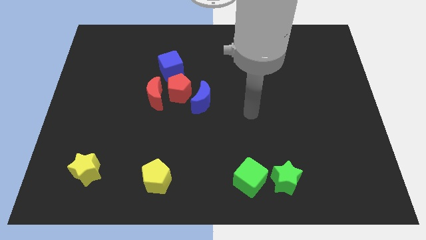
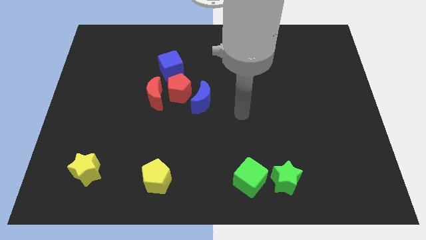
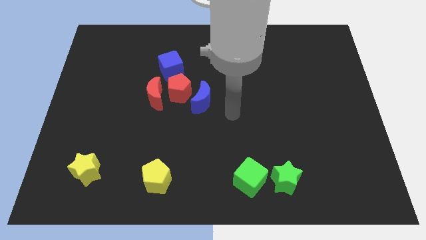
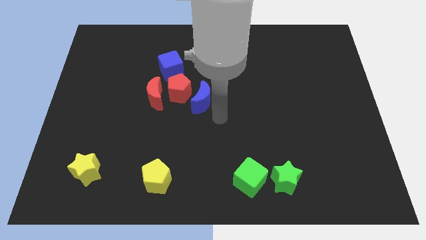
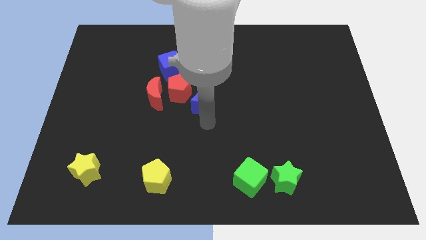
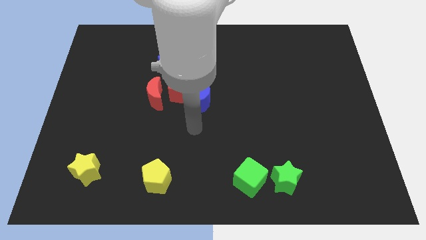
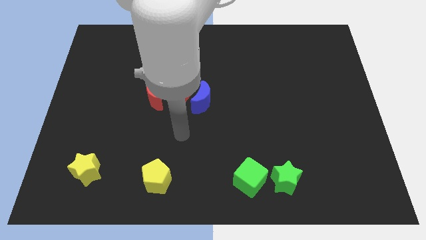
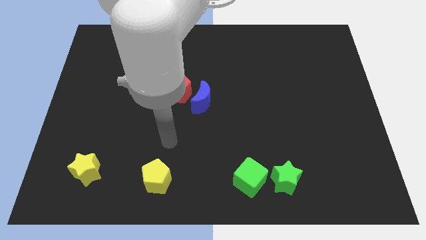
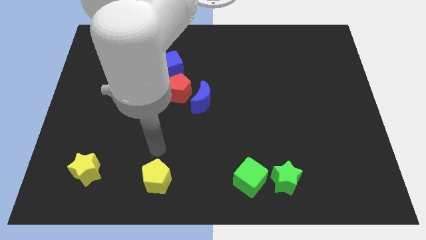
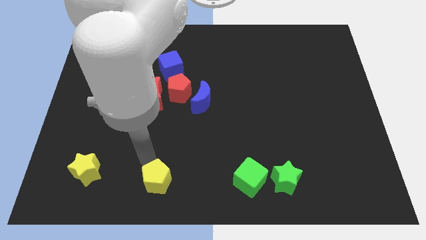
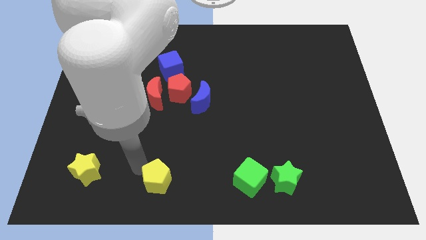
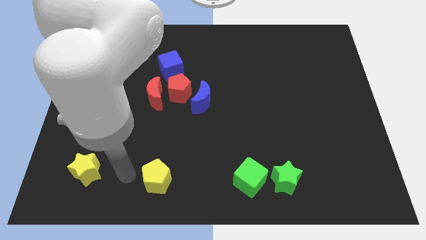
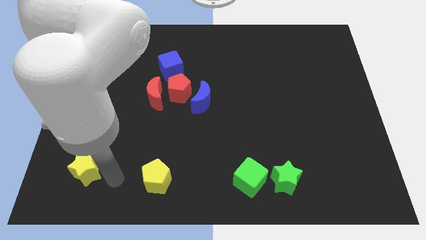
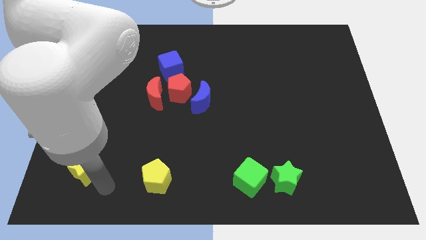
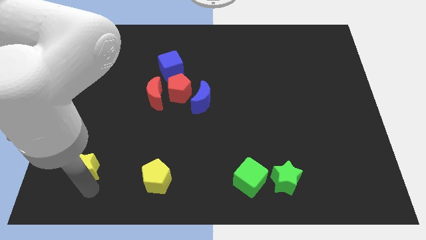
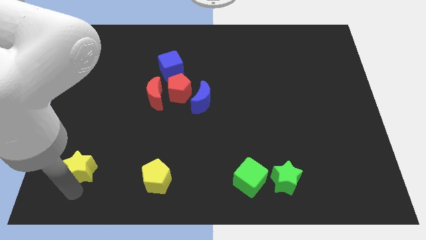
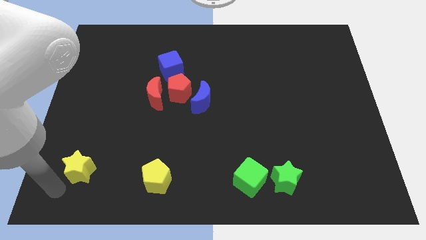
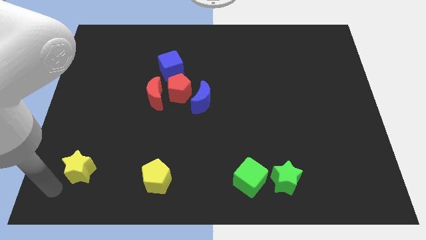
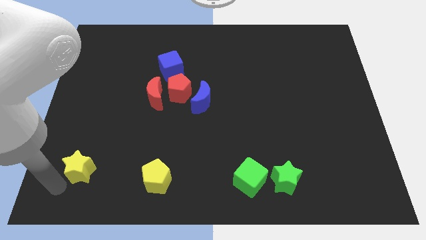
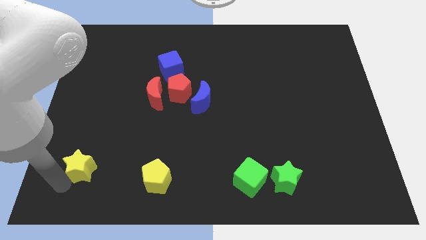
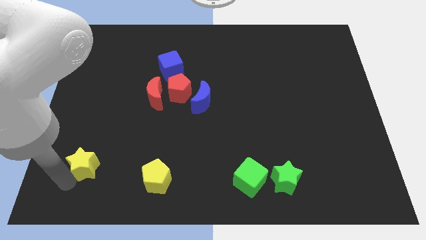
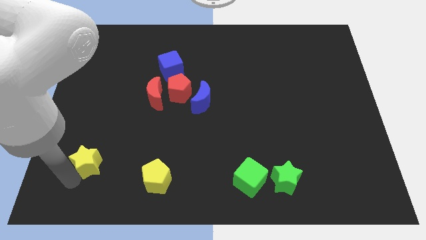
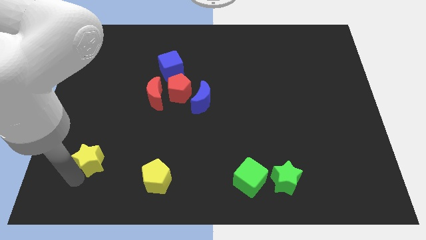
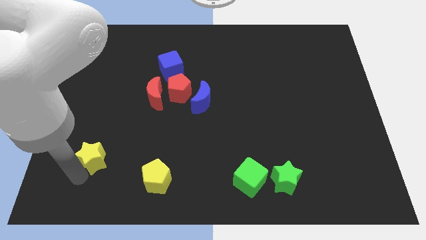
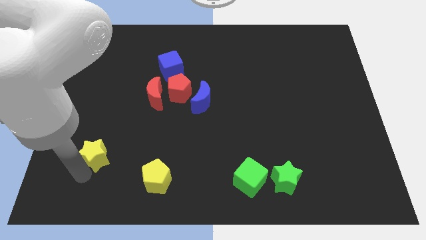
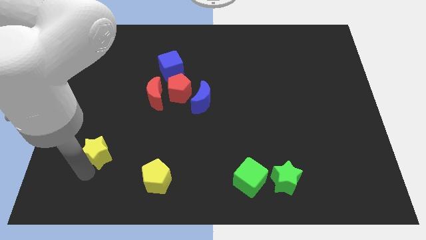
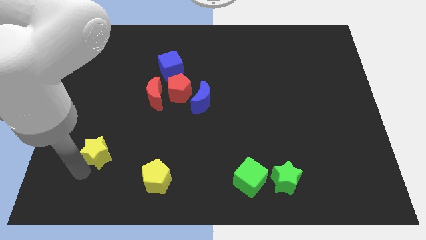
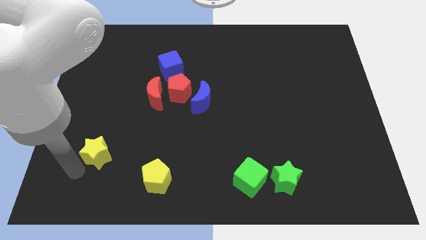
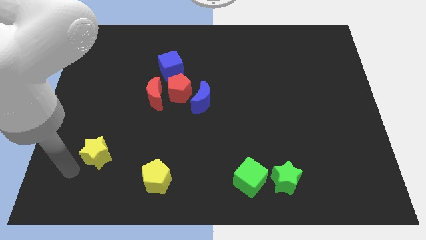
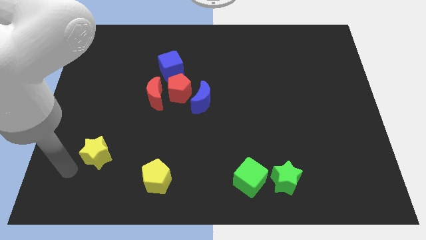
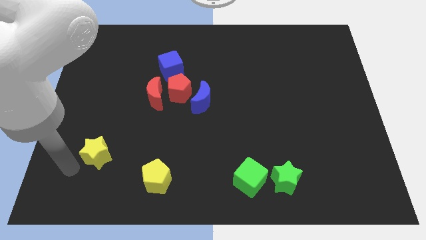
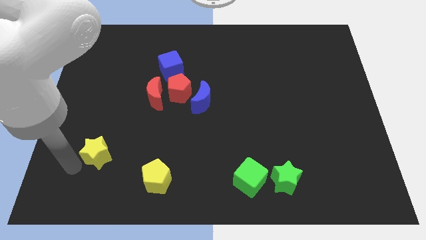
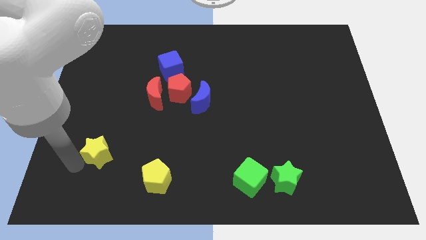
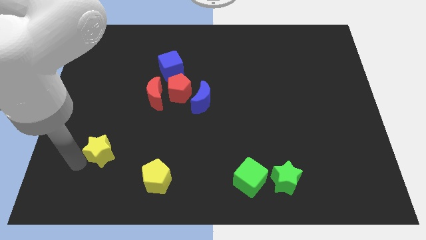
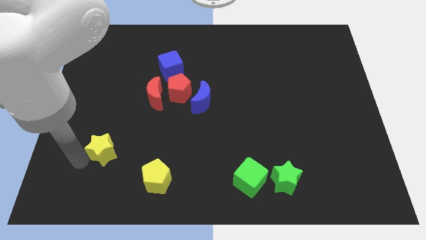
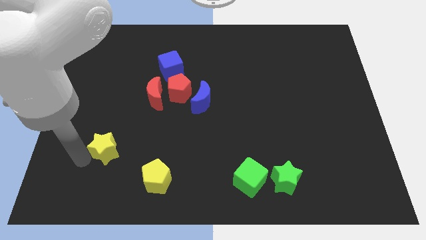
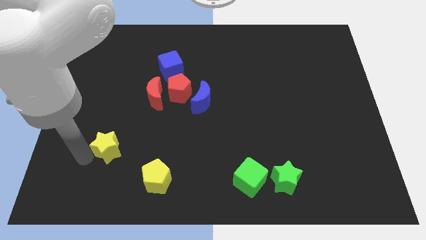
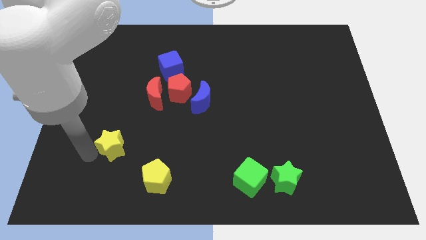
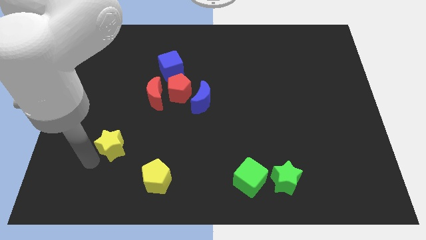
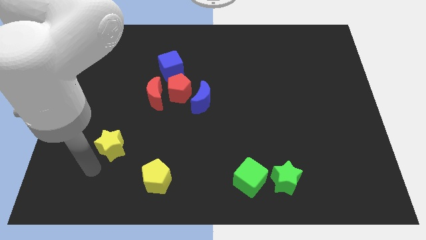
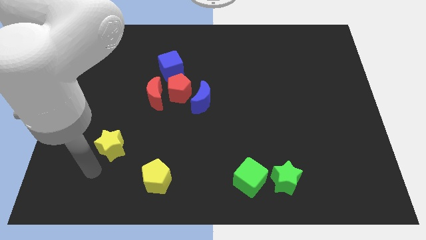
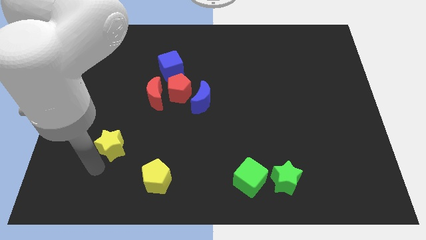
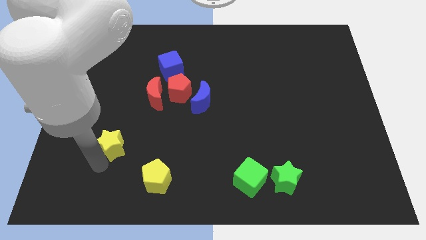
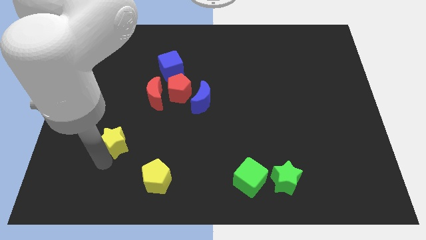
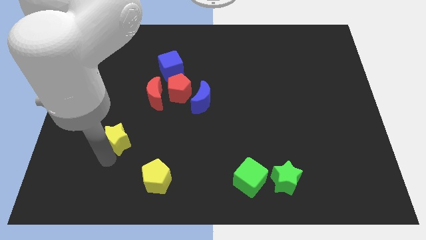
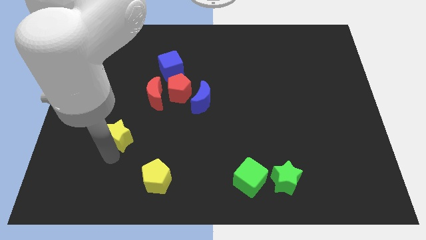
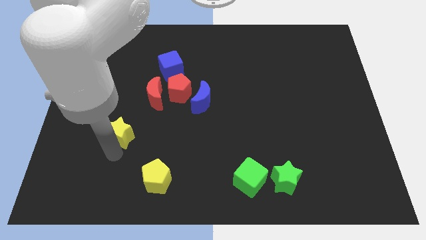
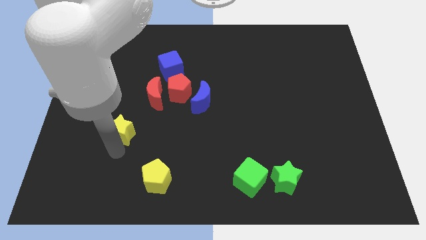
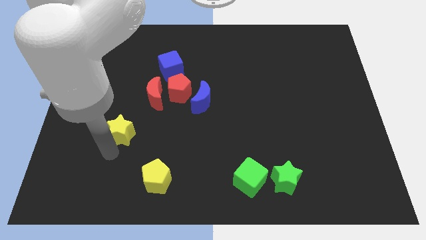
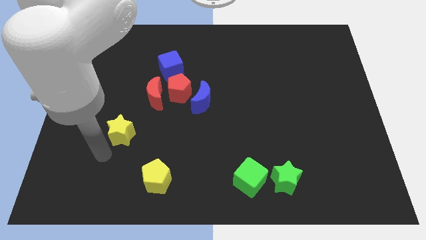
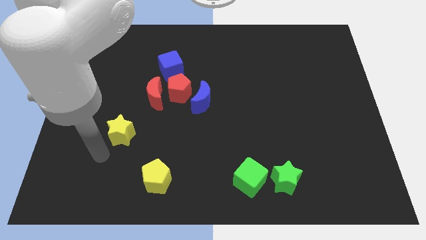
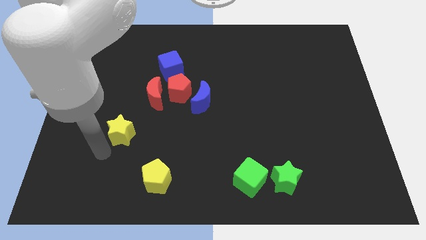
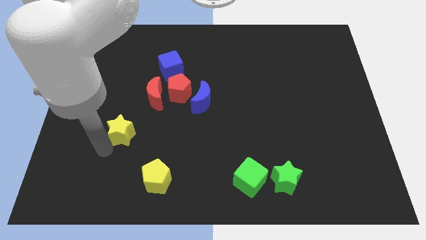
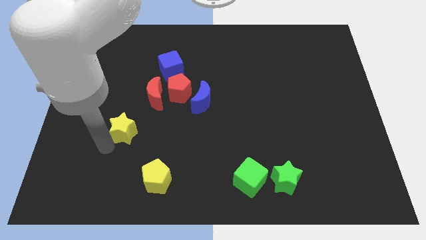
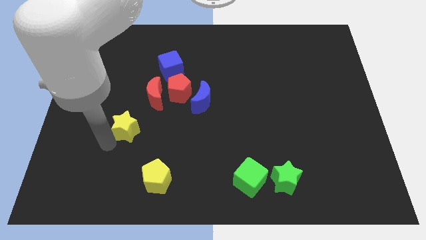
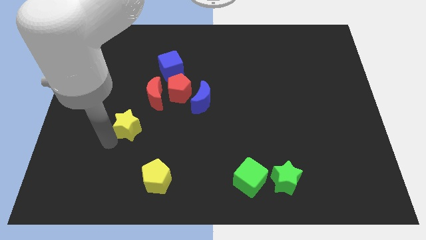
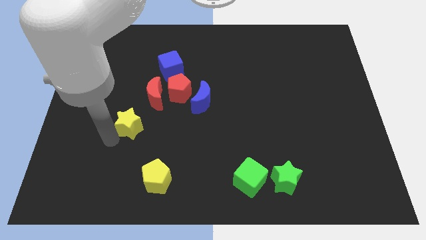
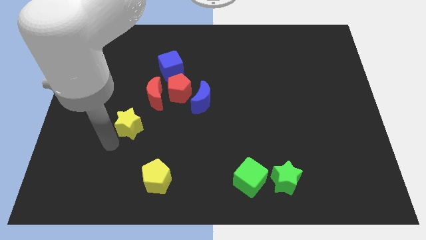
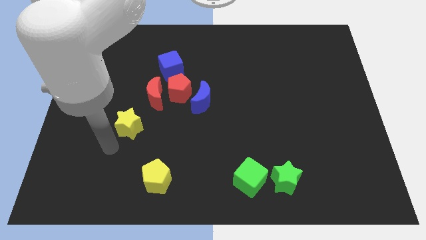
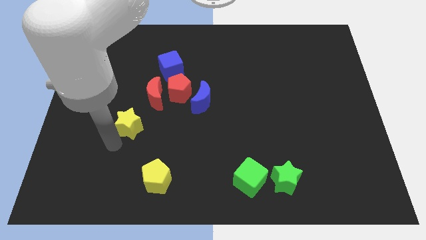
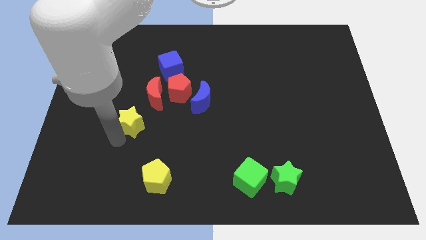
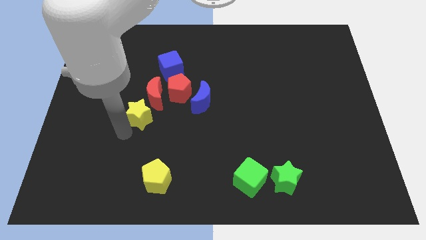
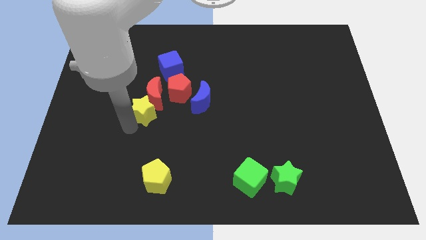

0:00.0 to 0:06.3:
move the yellow star close to the red moon

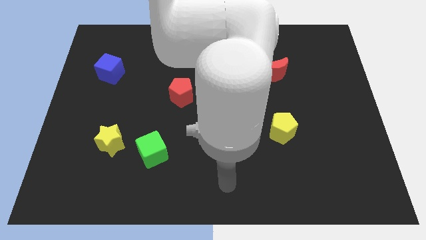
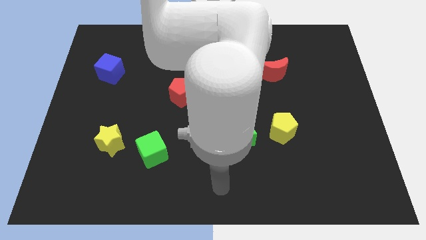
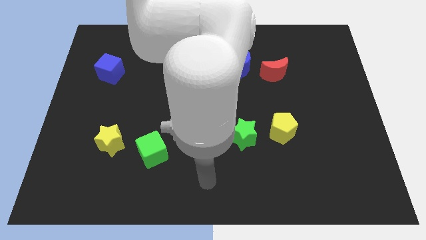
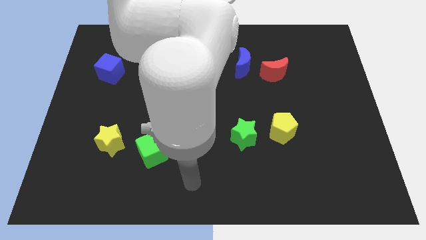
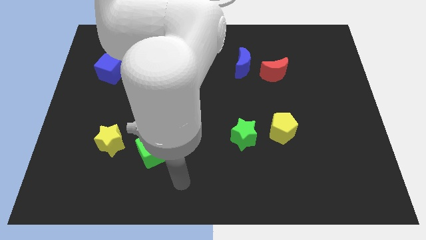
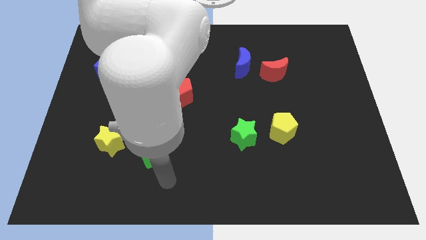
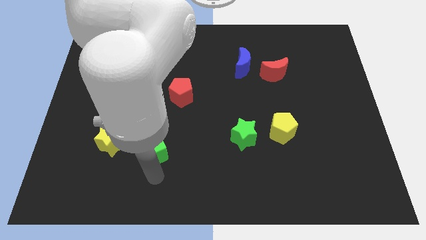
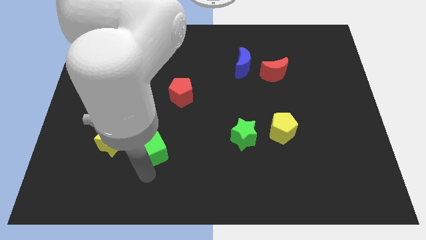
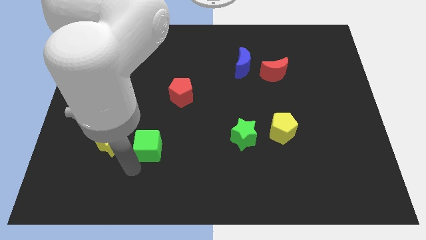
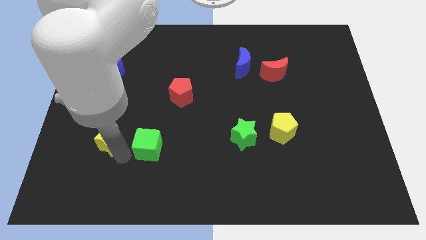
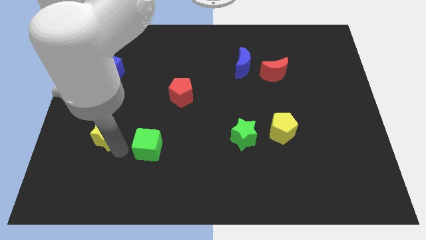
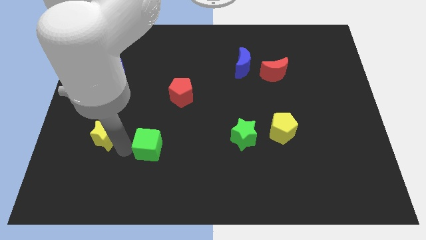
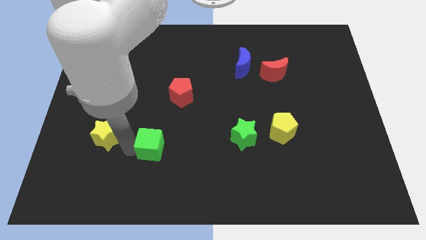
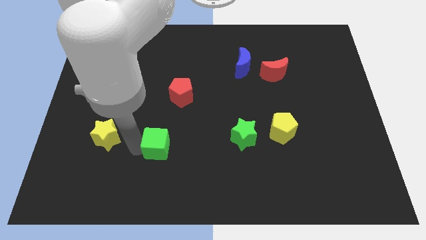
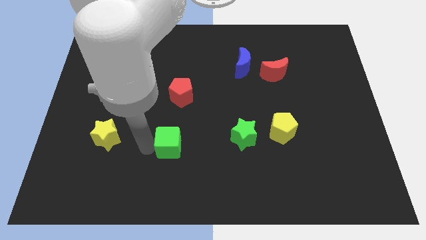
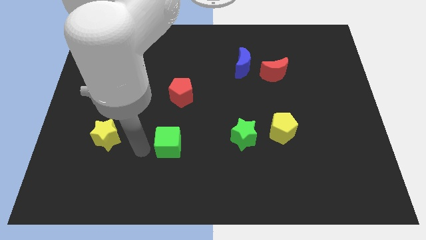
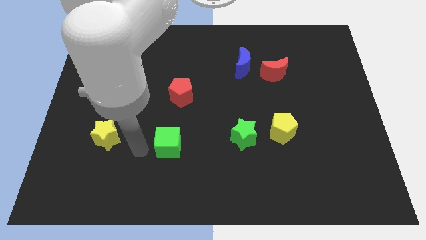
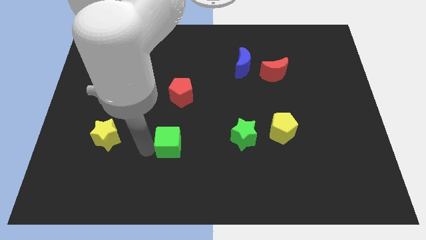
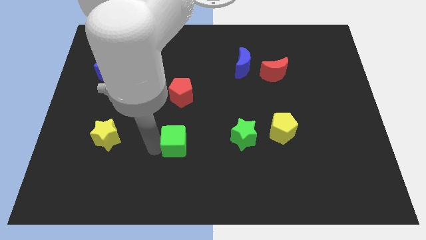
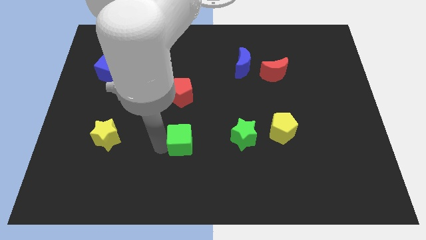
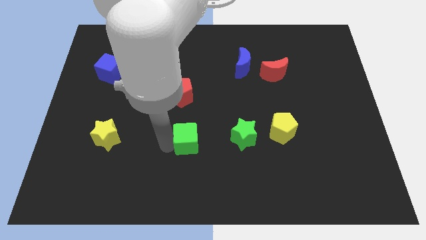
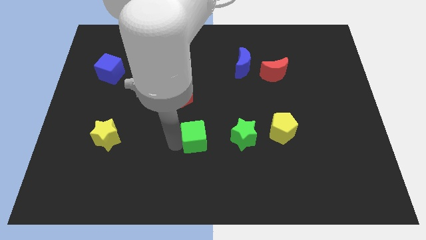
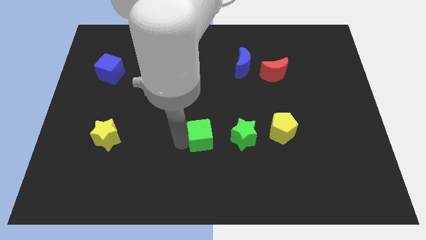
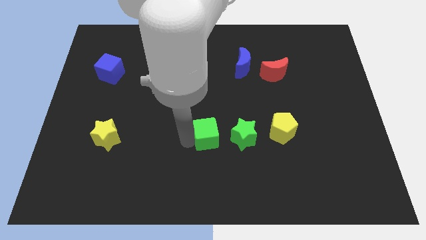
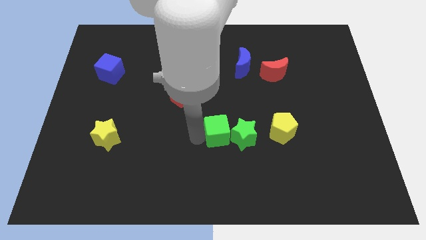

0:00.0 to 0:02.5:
push the green cube towards the green star
